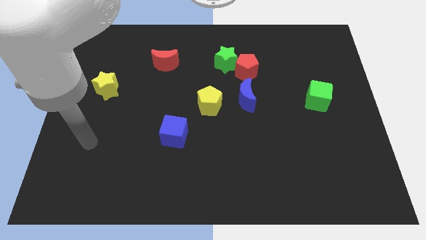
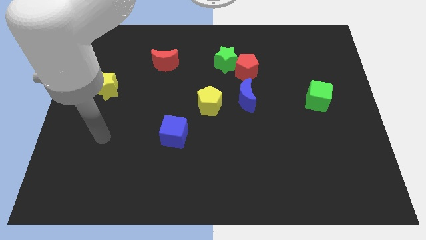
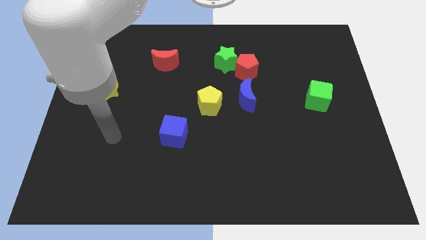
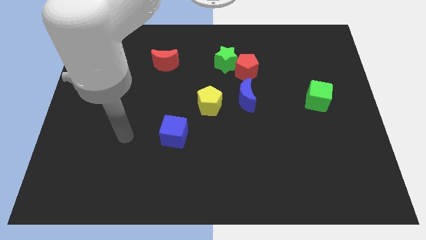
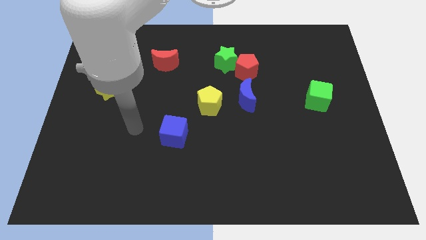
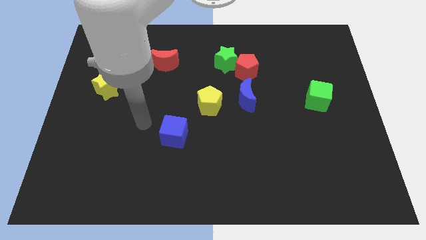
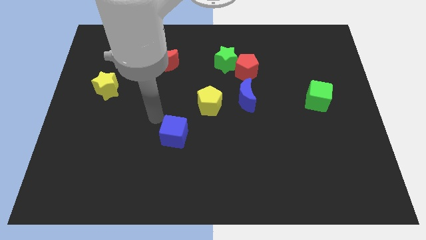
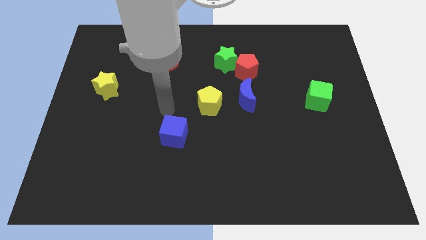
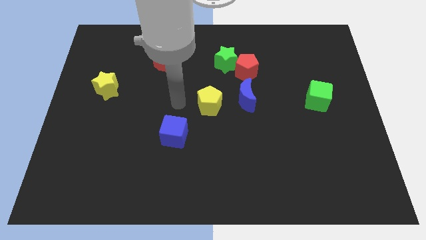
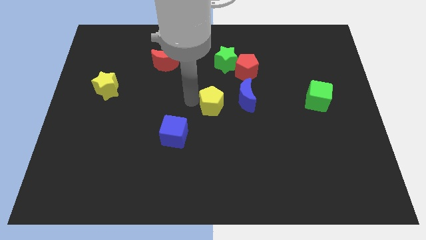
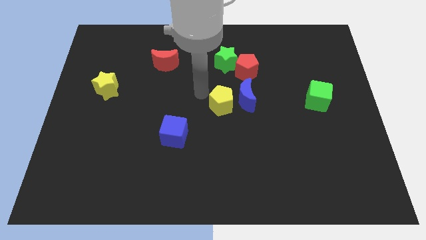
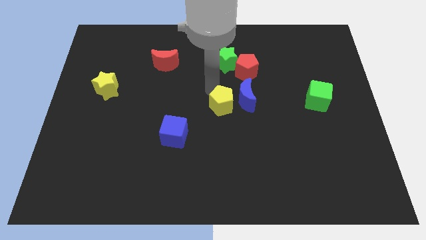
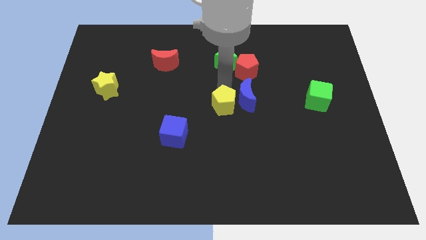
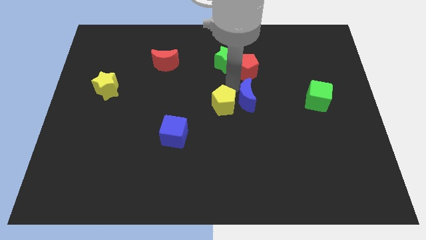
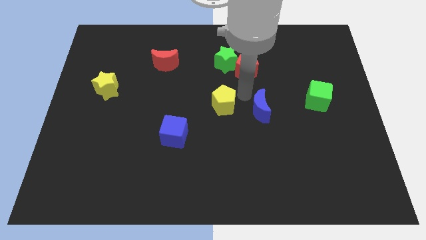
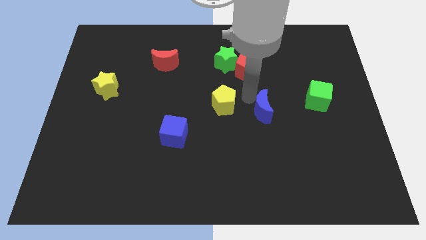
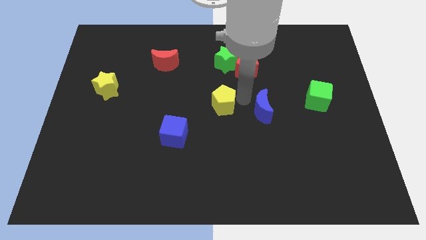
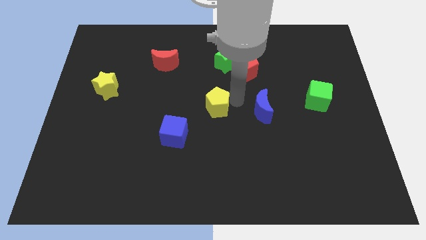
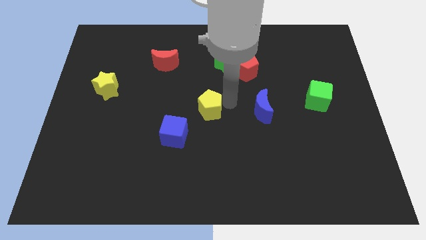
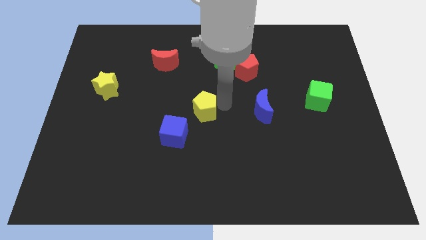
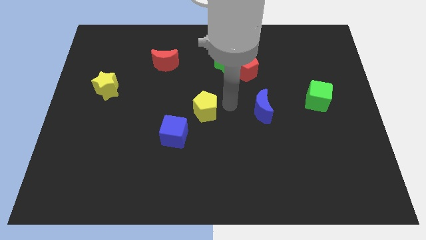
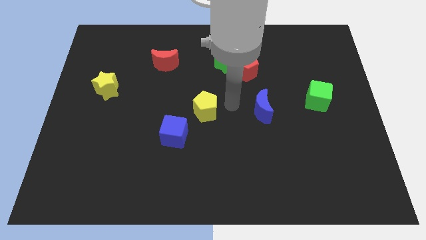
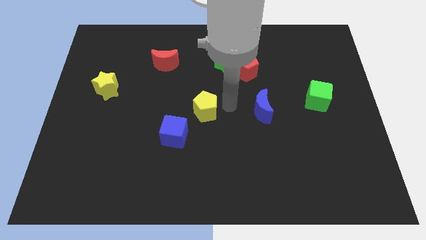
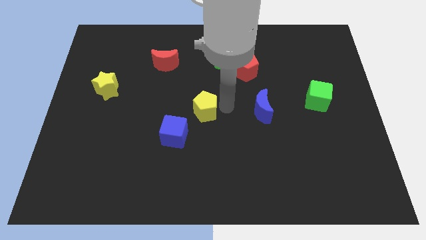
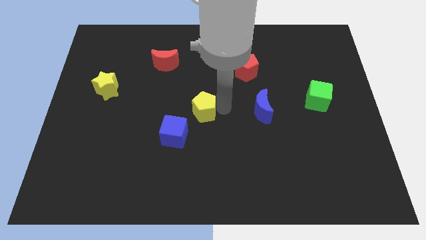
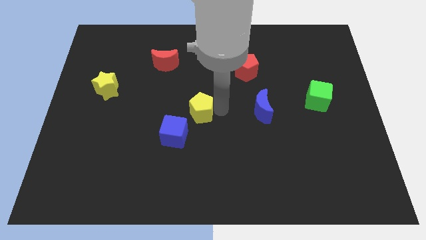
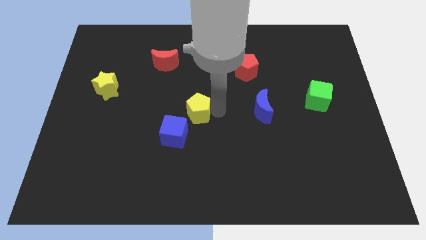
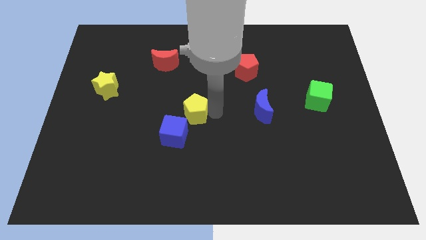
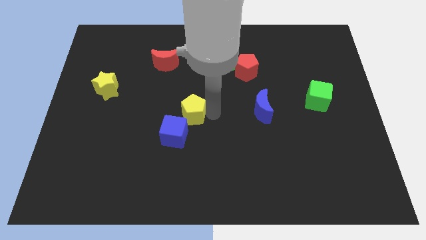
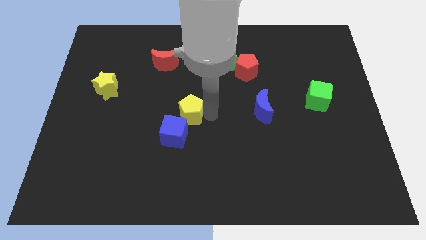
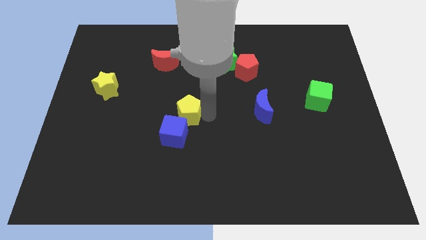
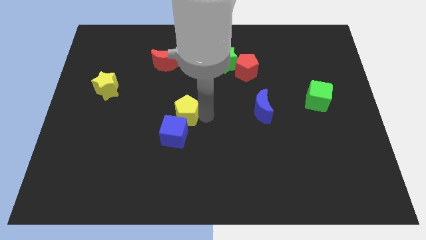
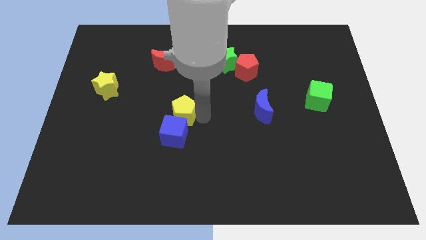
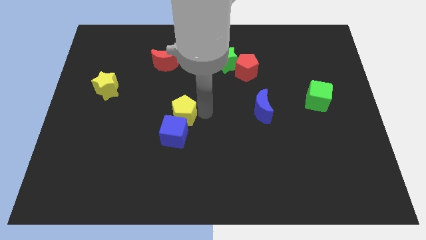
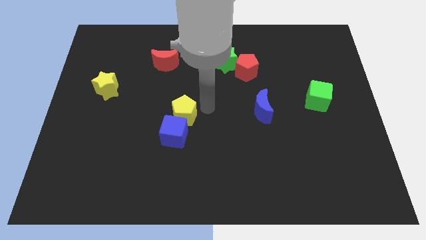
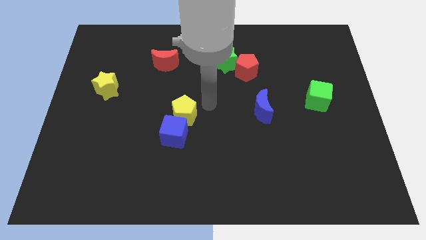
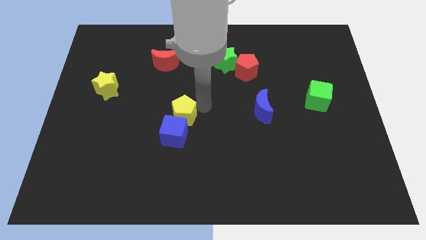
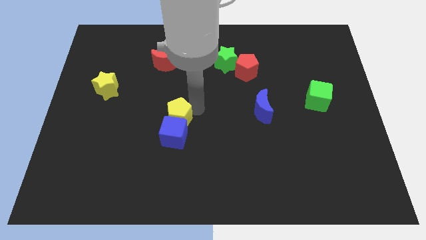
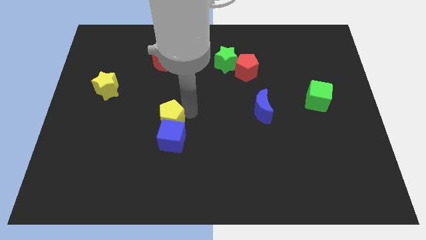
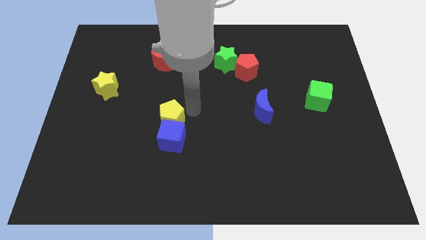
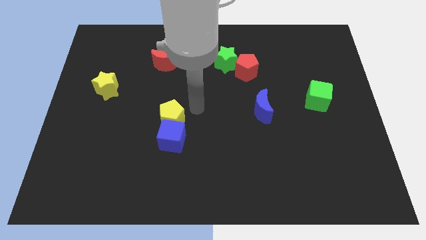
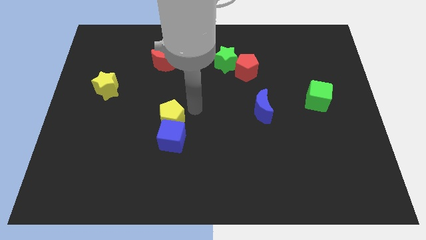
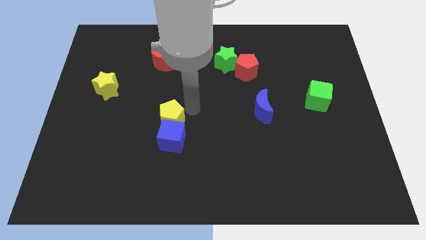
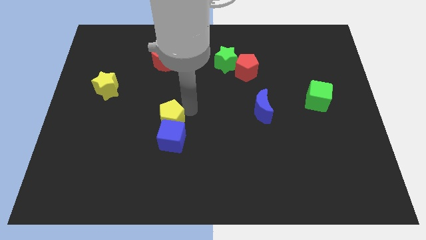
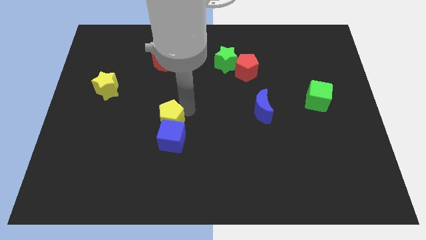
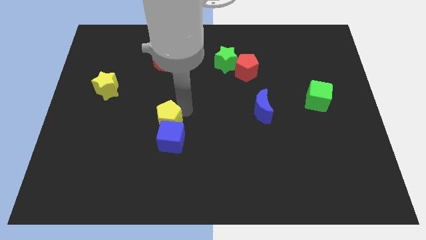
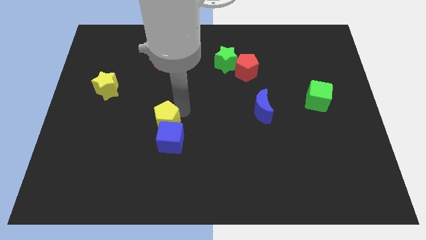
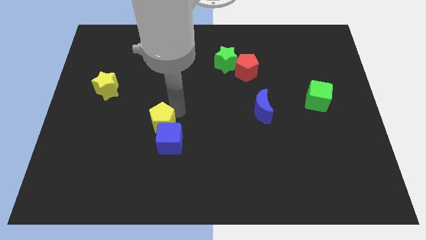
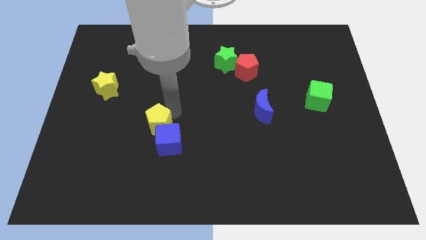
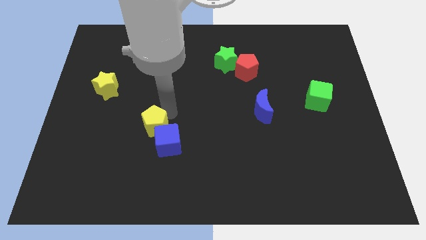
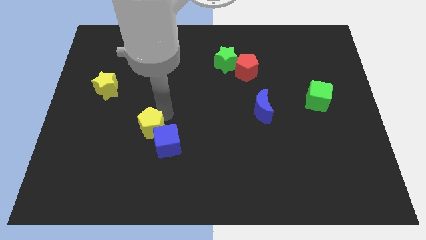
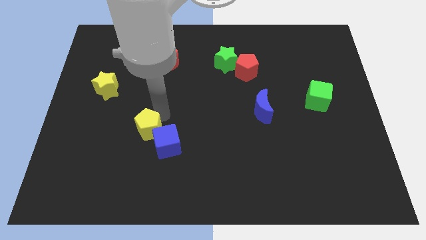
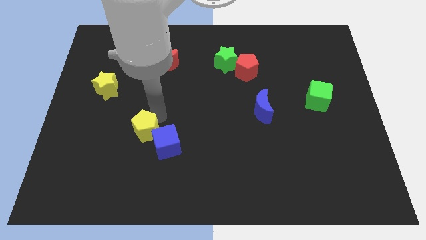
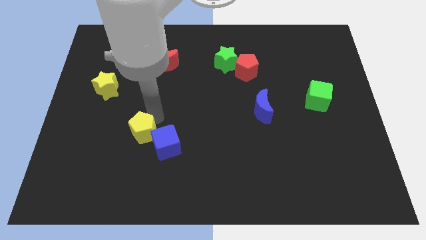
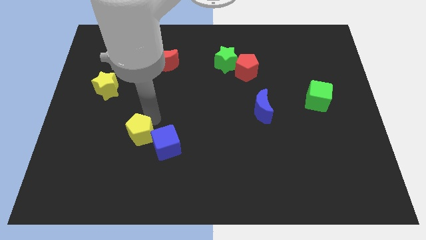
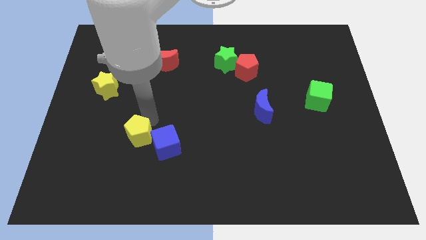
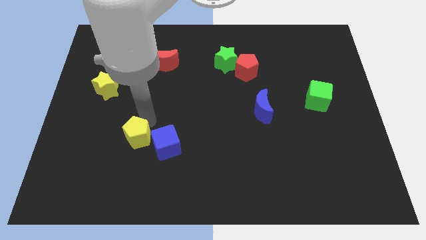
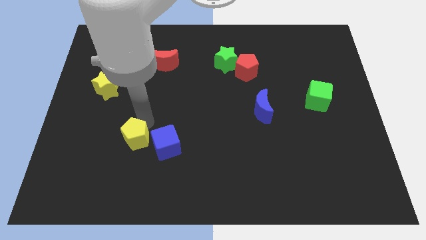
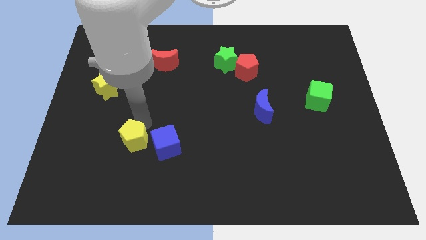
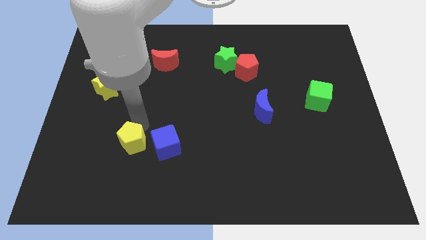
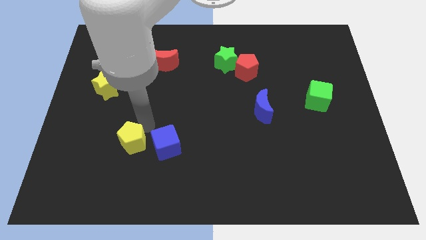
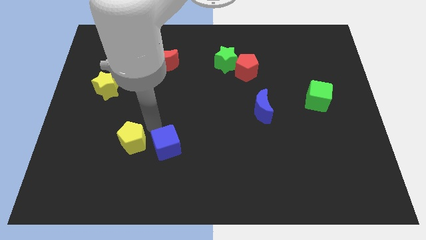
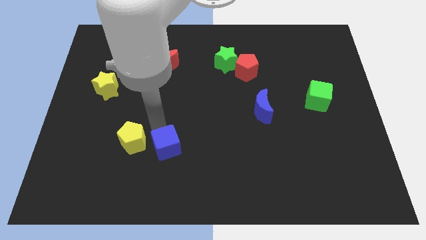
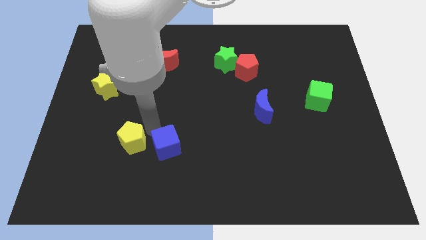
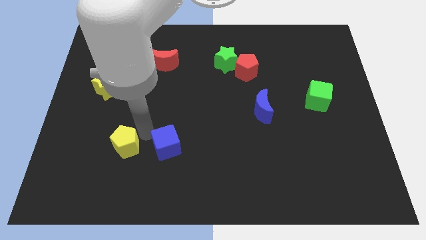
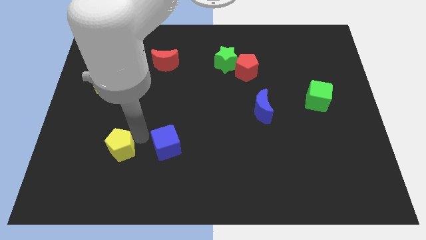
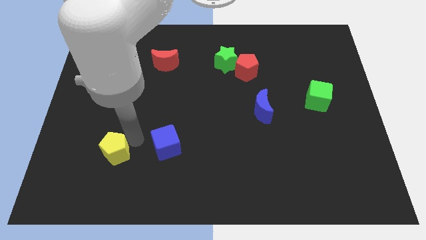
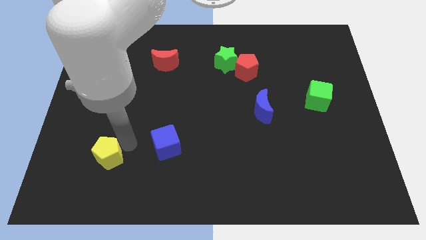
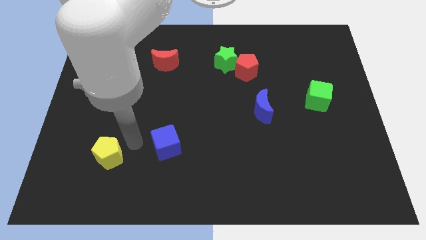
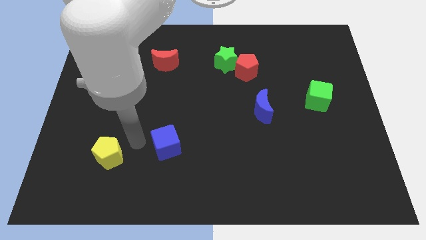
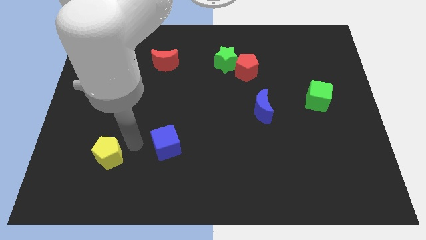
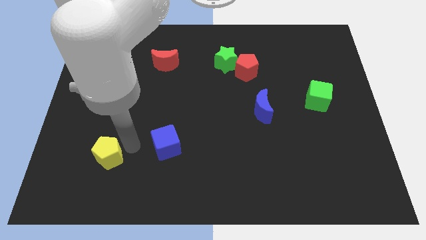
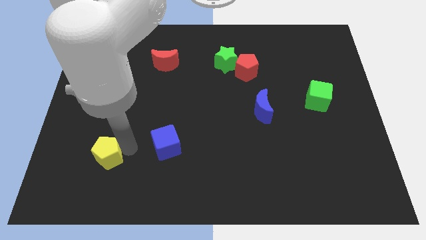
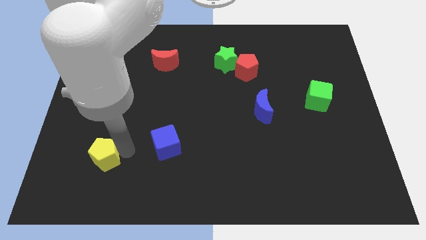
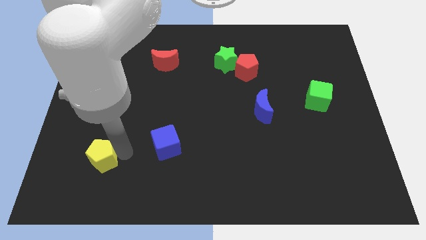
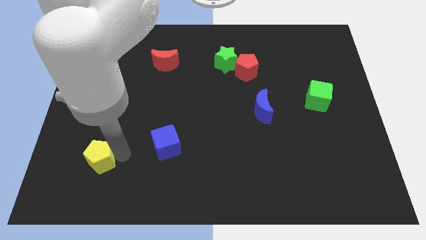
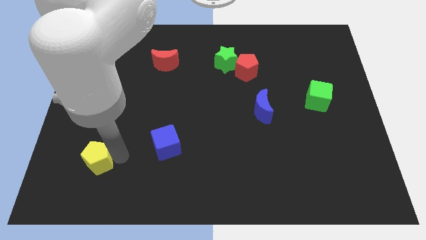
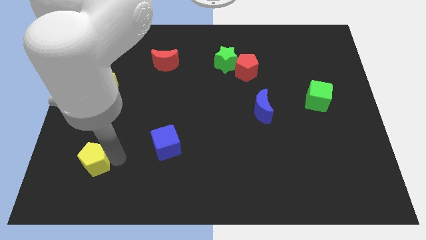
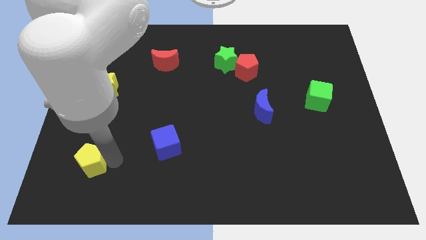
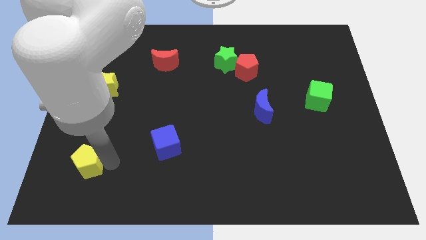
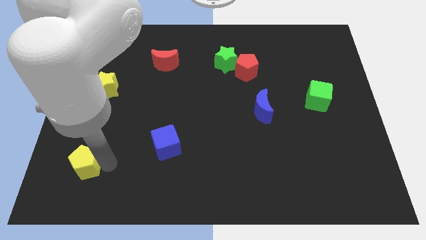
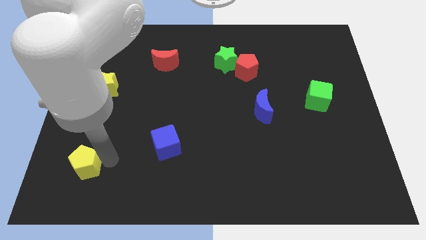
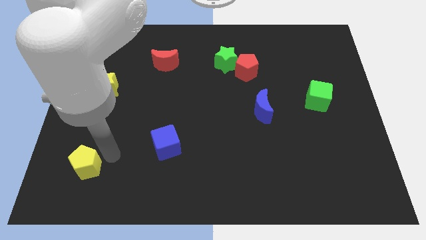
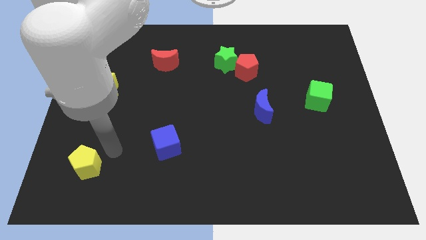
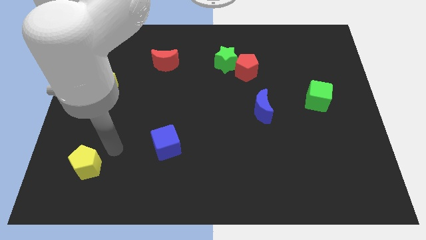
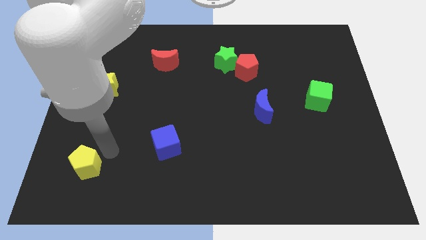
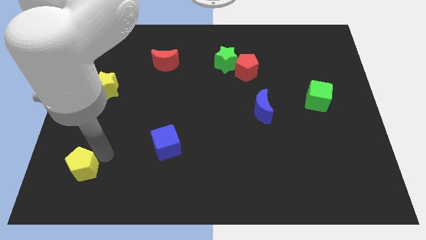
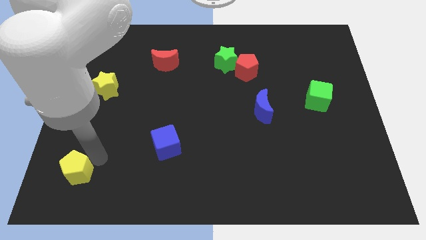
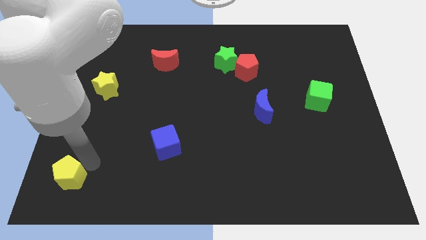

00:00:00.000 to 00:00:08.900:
put the yellow pentagon to the bottom left of the board
